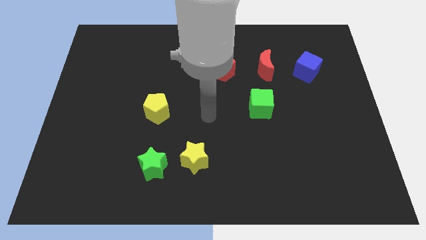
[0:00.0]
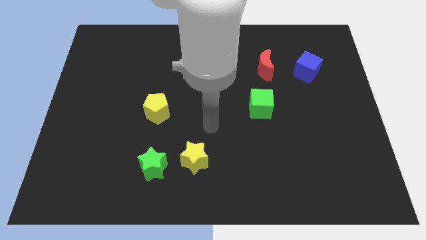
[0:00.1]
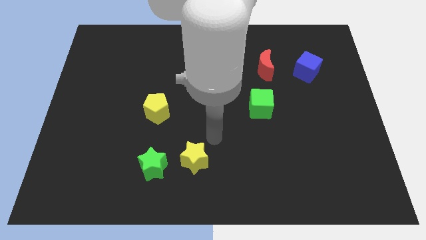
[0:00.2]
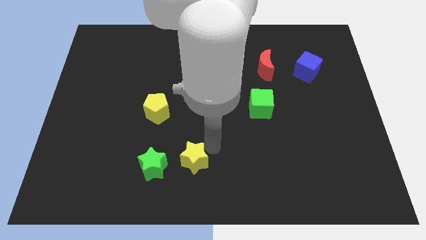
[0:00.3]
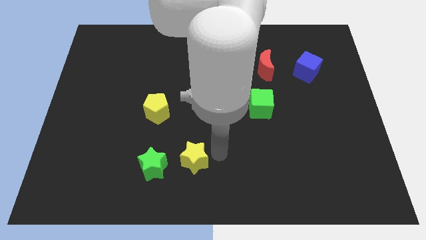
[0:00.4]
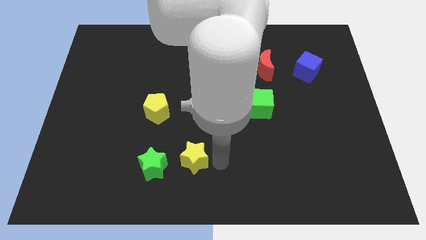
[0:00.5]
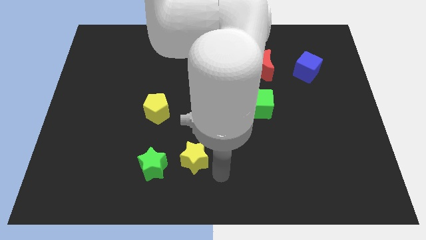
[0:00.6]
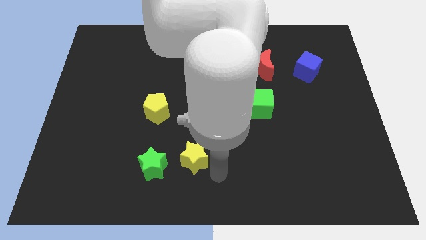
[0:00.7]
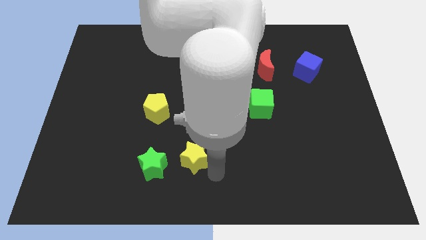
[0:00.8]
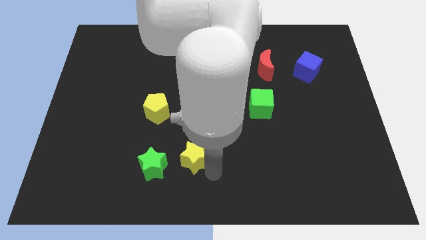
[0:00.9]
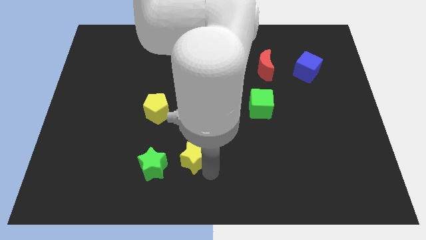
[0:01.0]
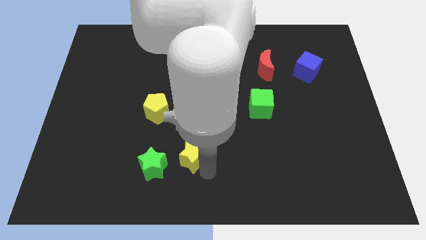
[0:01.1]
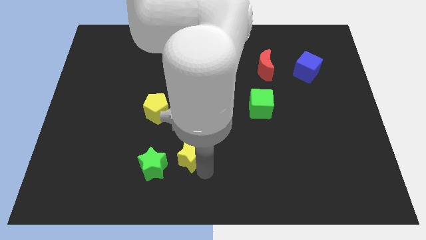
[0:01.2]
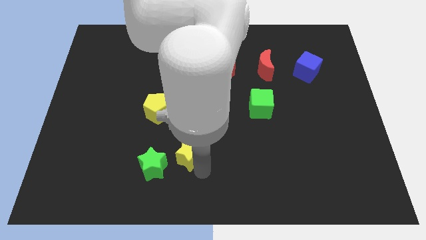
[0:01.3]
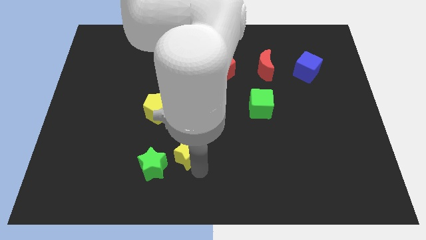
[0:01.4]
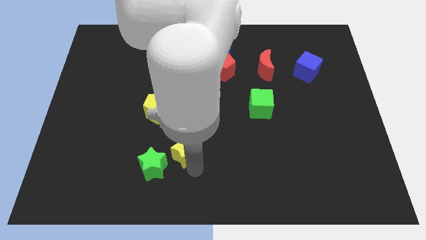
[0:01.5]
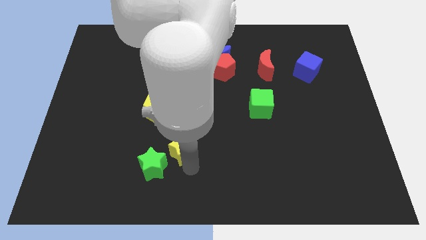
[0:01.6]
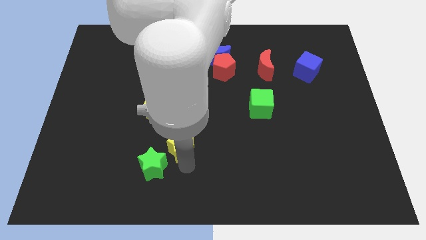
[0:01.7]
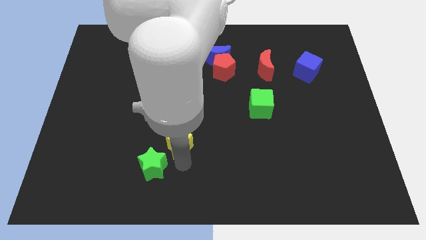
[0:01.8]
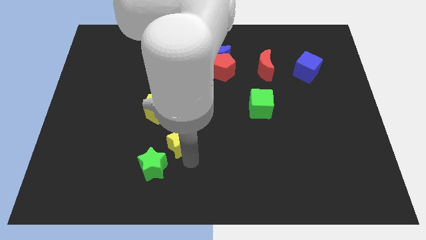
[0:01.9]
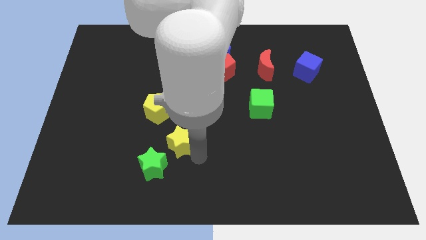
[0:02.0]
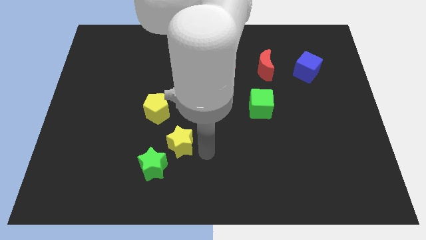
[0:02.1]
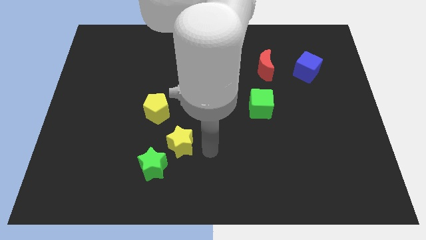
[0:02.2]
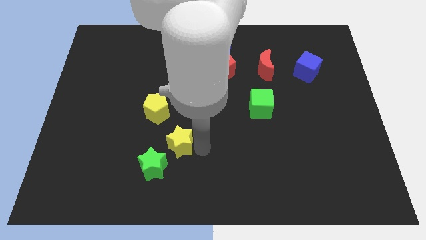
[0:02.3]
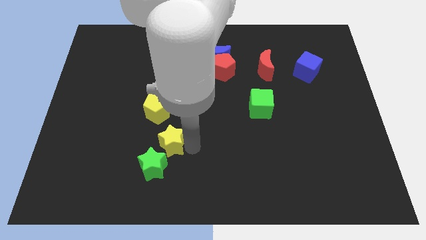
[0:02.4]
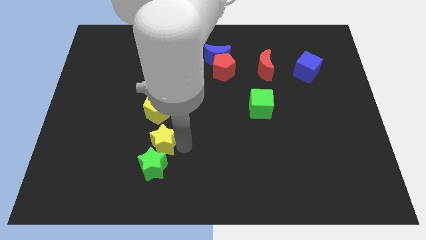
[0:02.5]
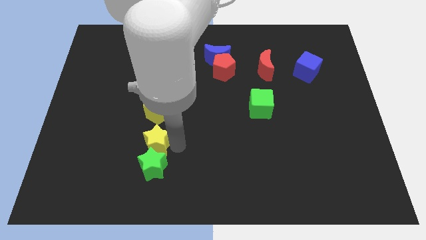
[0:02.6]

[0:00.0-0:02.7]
slide the yellow star a little bit left

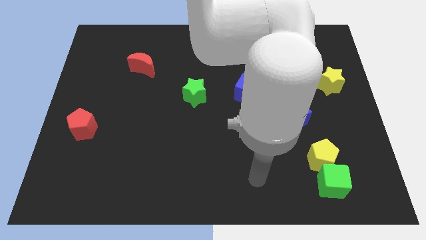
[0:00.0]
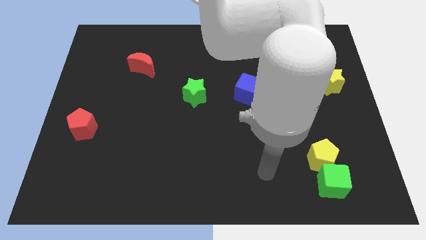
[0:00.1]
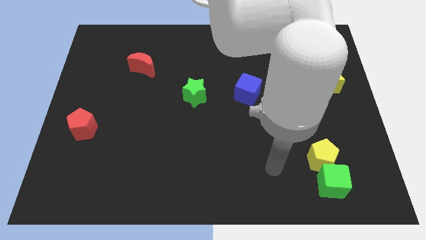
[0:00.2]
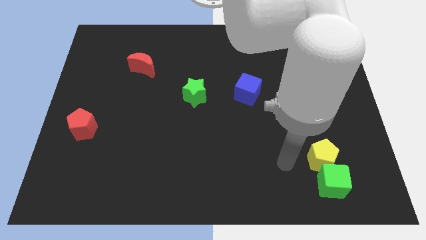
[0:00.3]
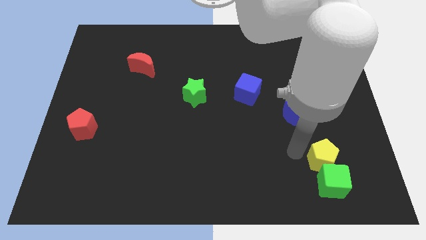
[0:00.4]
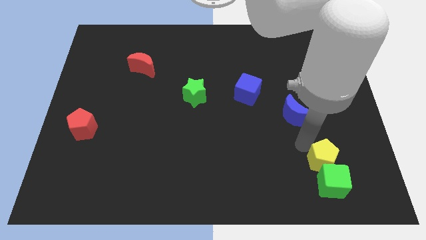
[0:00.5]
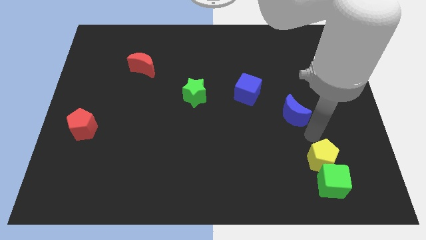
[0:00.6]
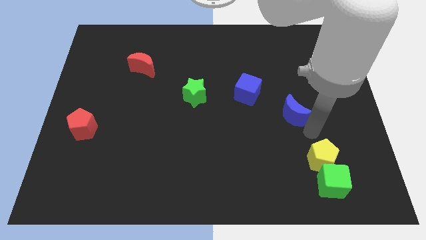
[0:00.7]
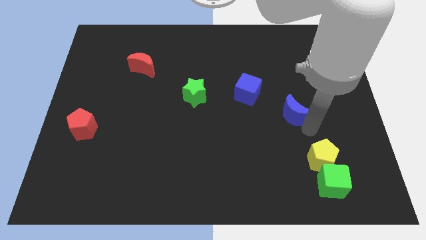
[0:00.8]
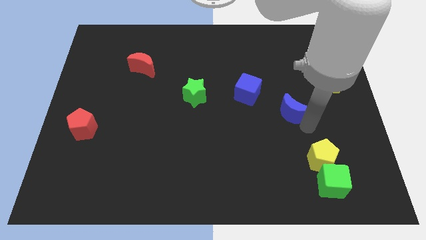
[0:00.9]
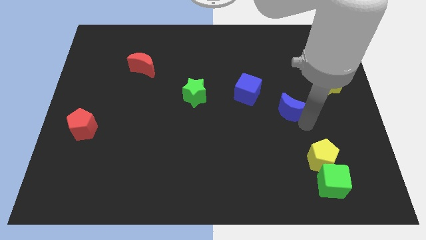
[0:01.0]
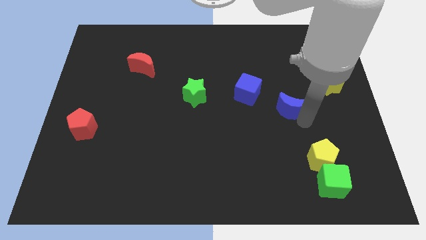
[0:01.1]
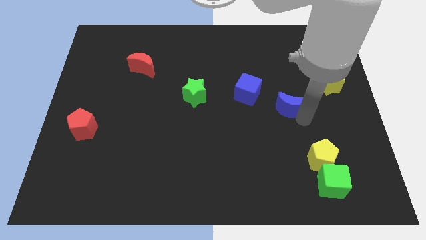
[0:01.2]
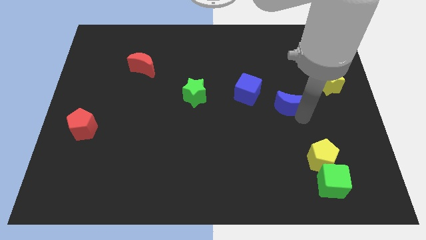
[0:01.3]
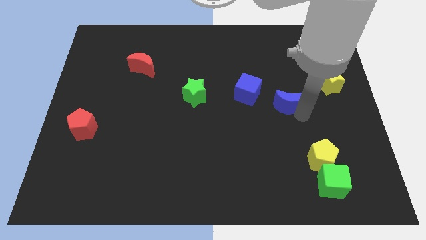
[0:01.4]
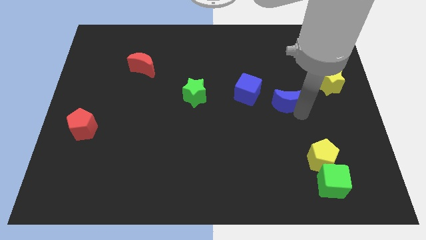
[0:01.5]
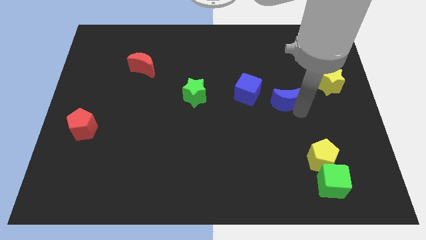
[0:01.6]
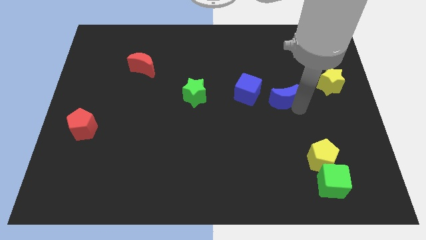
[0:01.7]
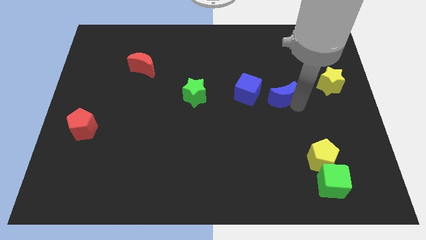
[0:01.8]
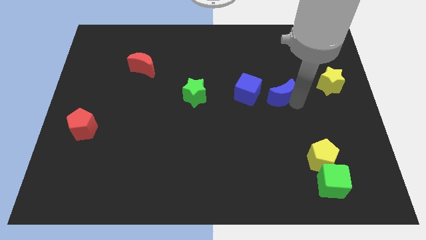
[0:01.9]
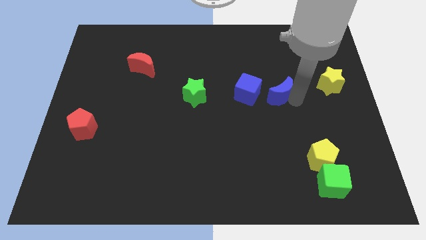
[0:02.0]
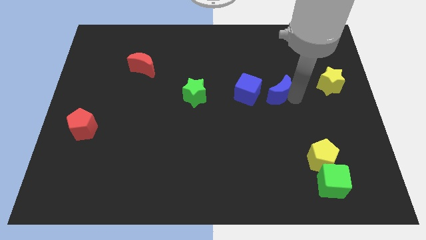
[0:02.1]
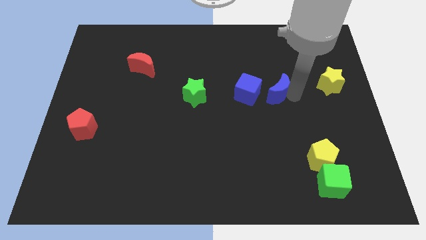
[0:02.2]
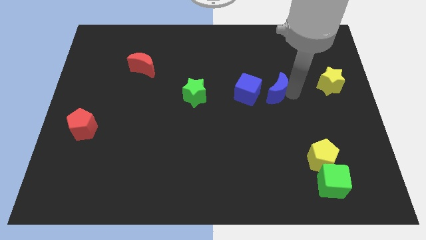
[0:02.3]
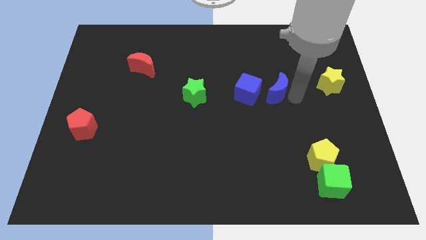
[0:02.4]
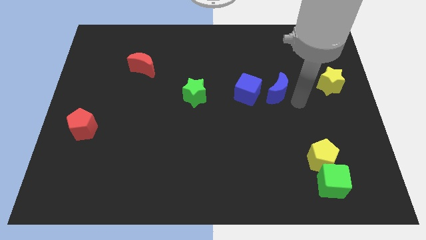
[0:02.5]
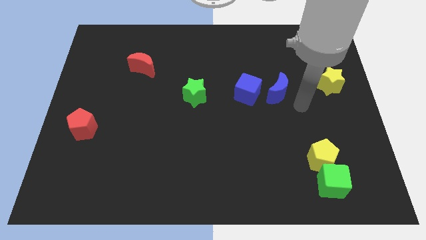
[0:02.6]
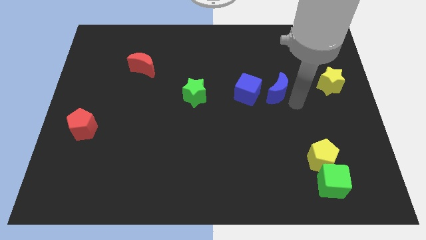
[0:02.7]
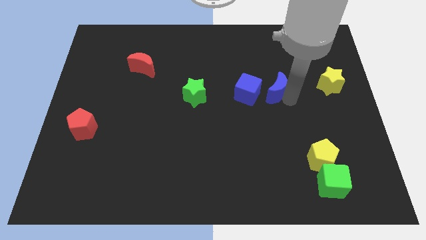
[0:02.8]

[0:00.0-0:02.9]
slide the blue moon somewhat diagonally upwards and left

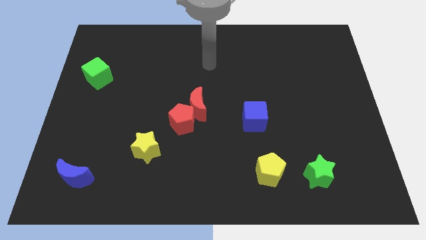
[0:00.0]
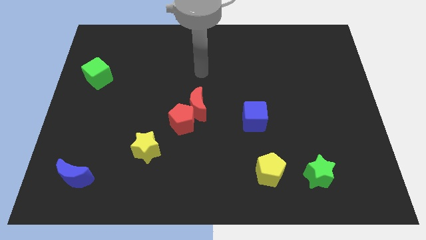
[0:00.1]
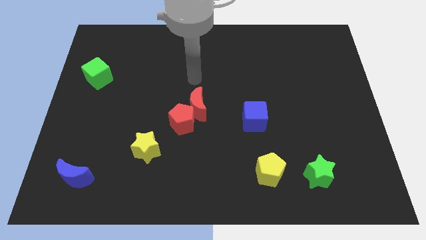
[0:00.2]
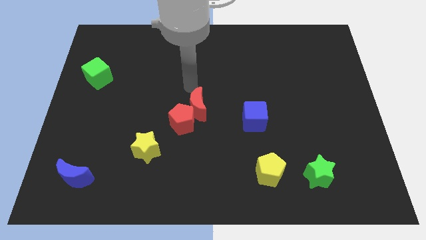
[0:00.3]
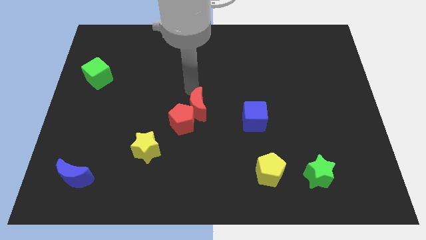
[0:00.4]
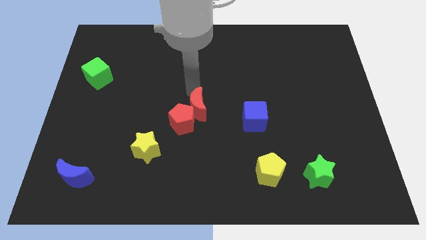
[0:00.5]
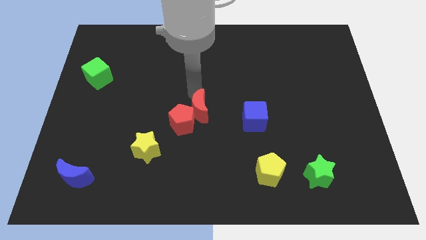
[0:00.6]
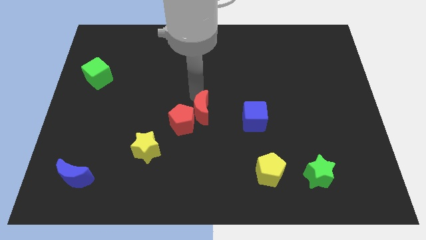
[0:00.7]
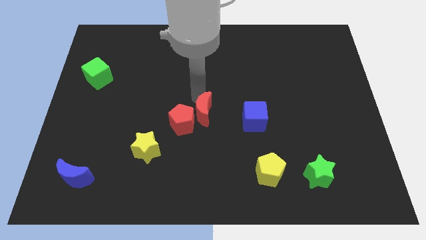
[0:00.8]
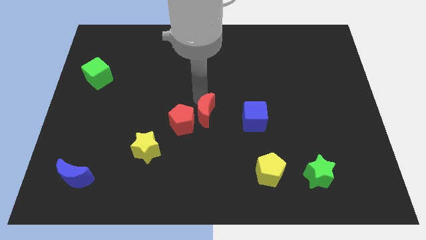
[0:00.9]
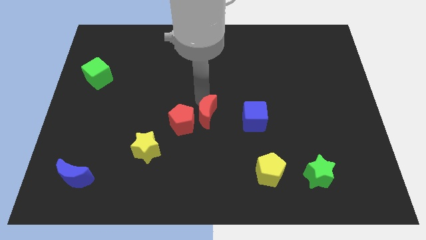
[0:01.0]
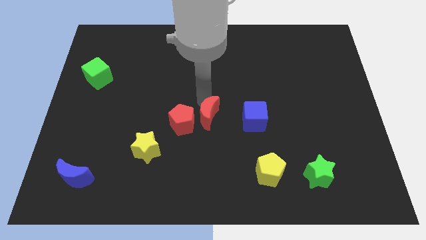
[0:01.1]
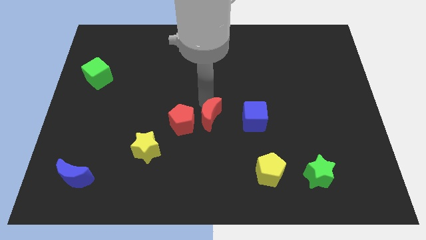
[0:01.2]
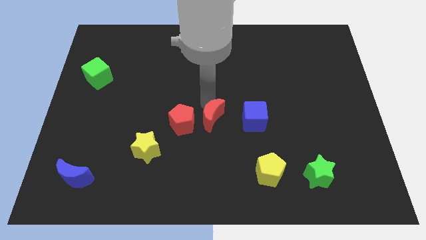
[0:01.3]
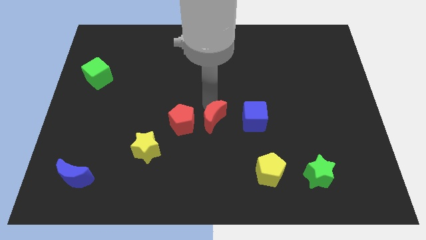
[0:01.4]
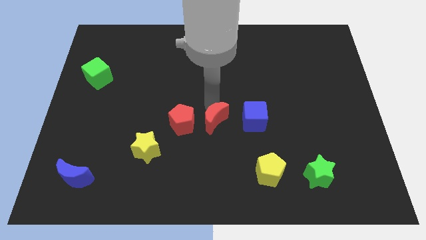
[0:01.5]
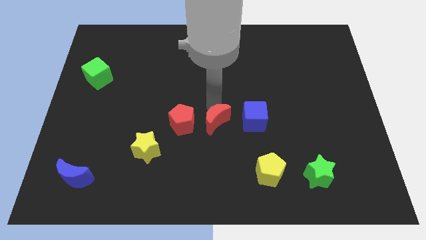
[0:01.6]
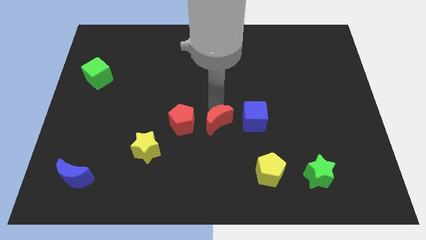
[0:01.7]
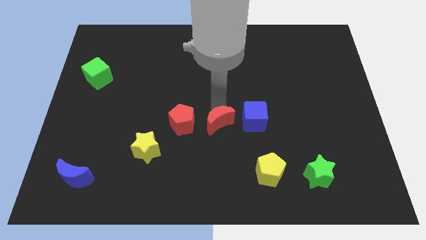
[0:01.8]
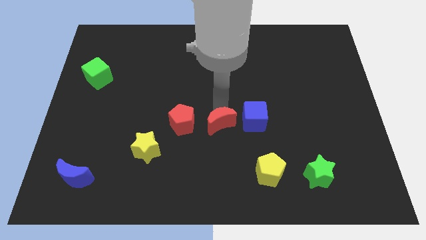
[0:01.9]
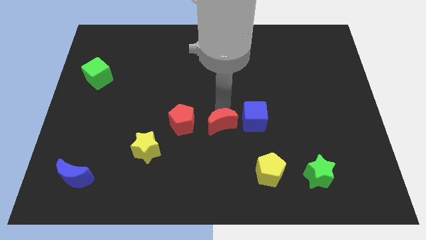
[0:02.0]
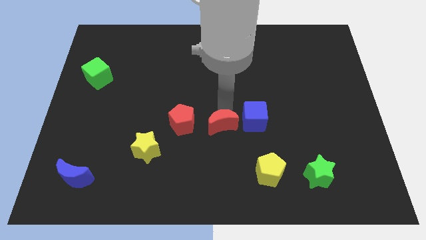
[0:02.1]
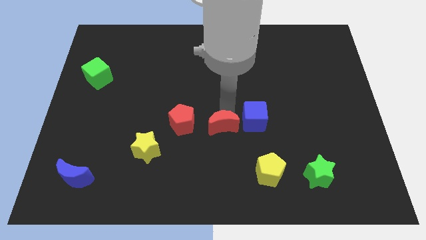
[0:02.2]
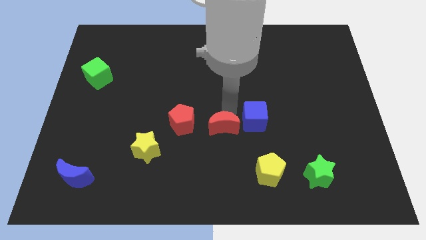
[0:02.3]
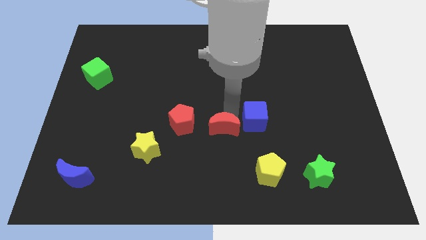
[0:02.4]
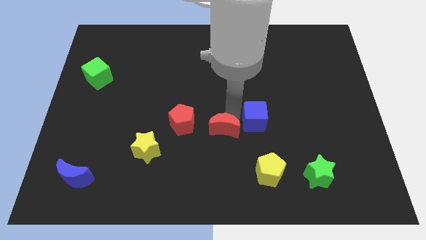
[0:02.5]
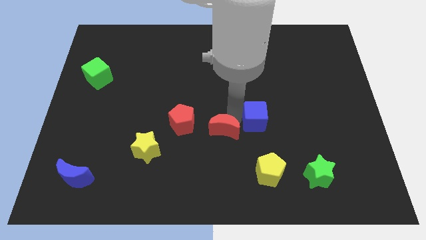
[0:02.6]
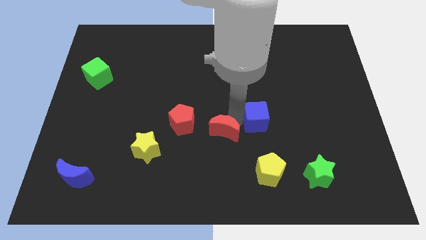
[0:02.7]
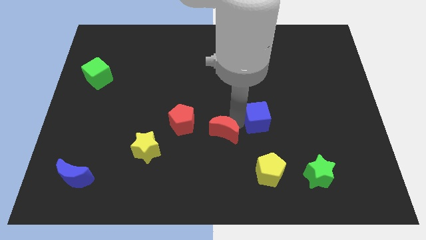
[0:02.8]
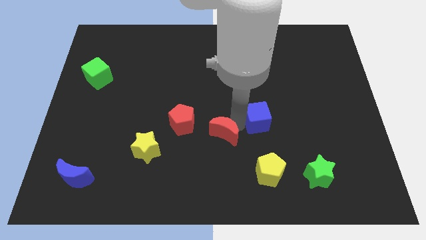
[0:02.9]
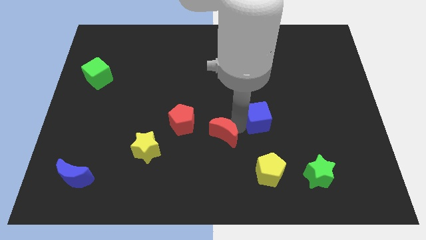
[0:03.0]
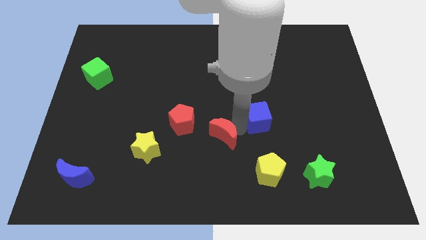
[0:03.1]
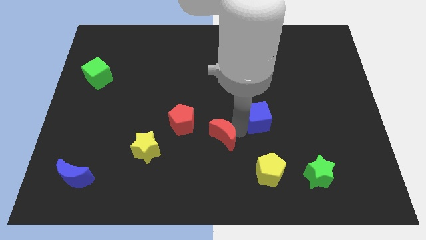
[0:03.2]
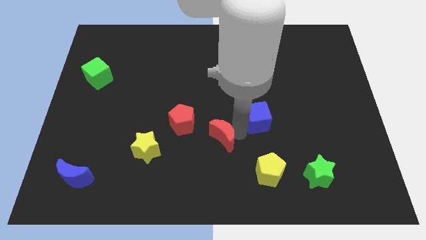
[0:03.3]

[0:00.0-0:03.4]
push the red moon a little downwards
